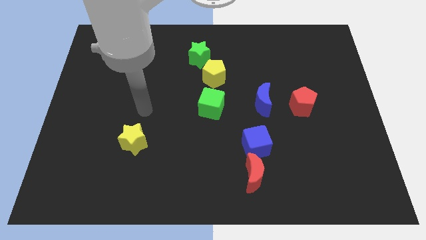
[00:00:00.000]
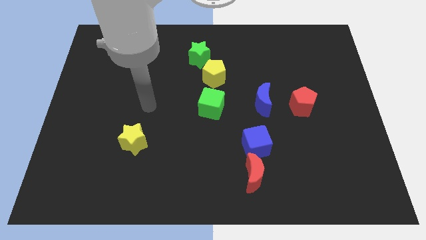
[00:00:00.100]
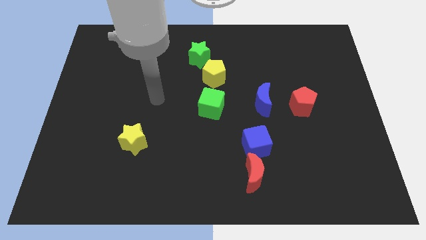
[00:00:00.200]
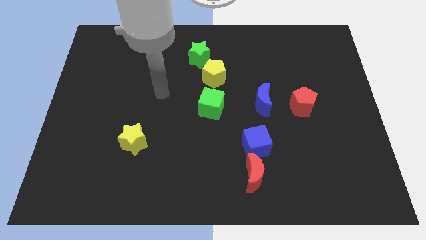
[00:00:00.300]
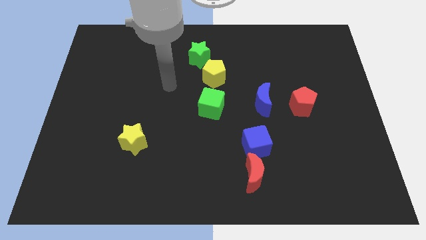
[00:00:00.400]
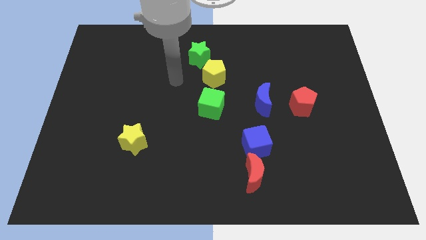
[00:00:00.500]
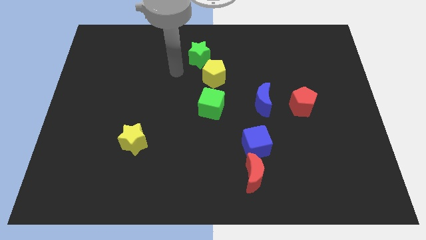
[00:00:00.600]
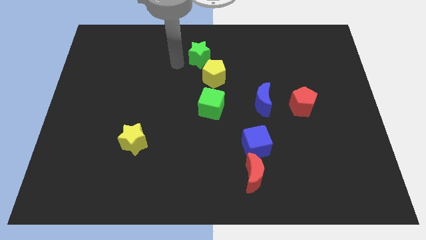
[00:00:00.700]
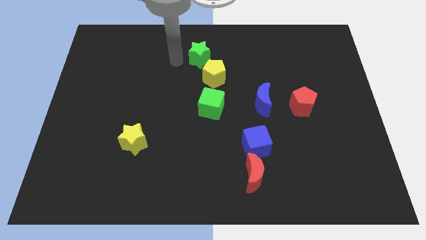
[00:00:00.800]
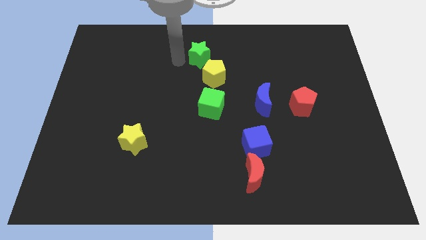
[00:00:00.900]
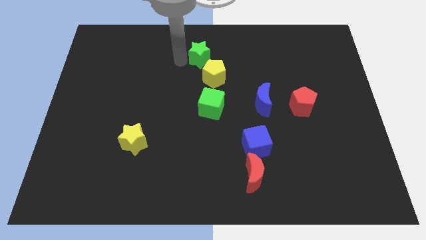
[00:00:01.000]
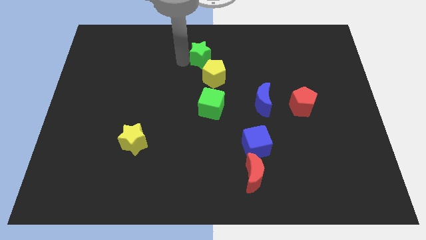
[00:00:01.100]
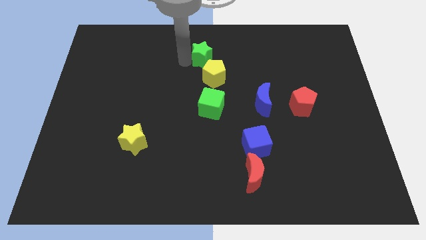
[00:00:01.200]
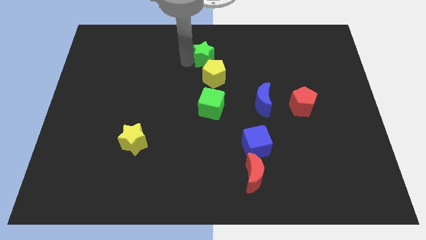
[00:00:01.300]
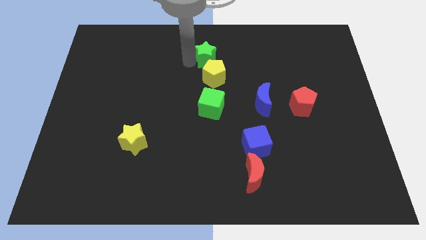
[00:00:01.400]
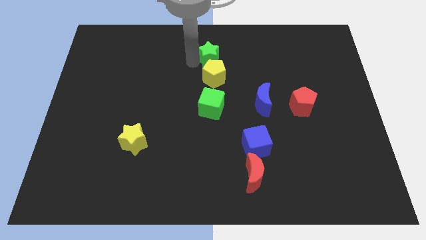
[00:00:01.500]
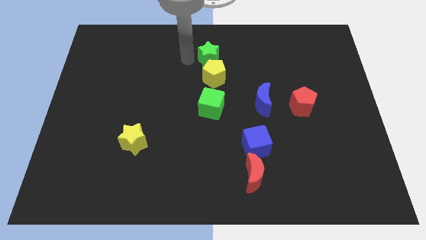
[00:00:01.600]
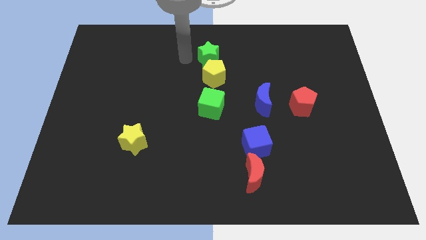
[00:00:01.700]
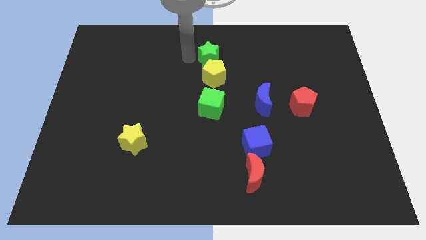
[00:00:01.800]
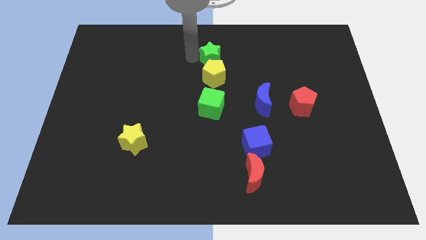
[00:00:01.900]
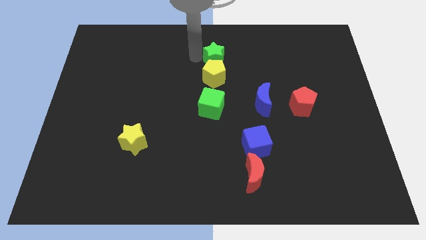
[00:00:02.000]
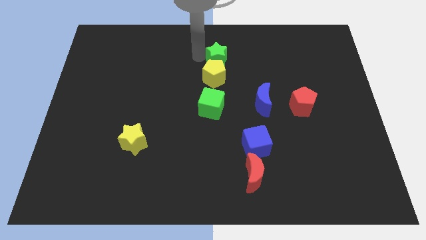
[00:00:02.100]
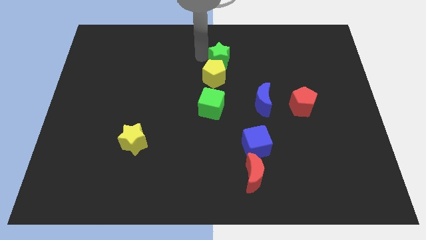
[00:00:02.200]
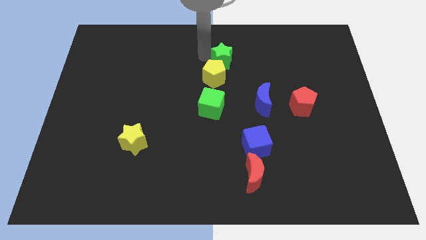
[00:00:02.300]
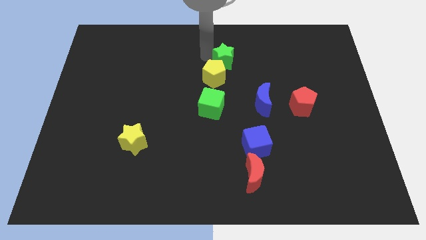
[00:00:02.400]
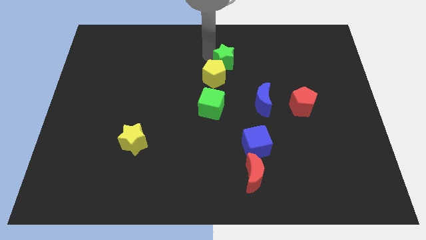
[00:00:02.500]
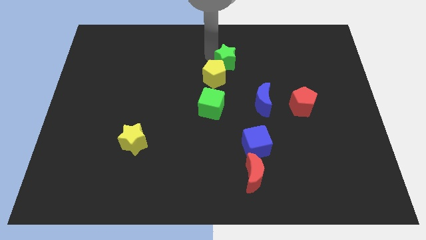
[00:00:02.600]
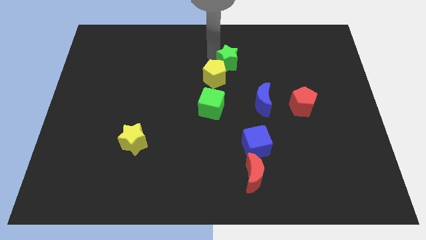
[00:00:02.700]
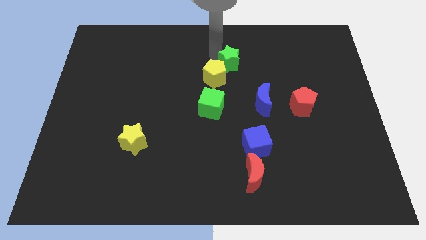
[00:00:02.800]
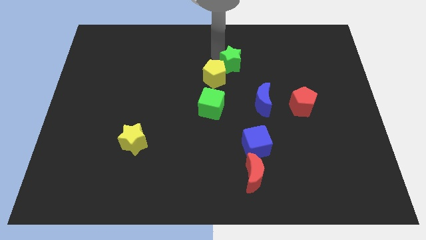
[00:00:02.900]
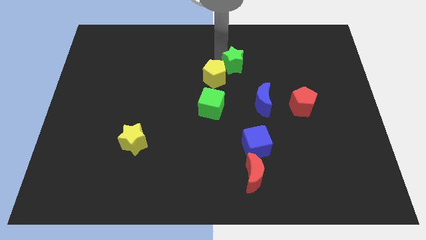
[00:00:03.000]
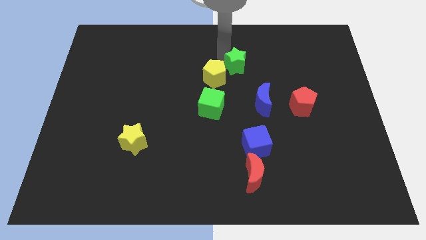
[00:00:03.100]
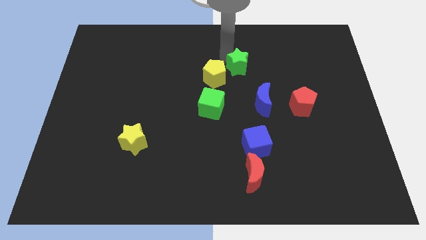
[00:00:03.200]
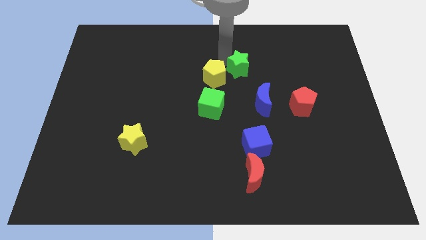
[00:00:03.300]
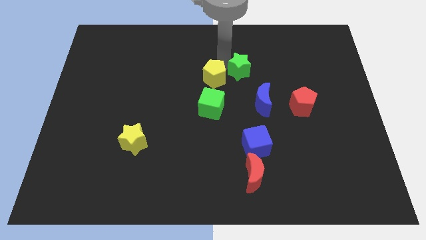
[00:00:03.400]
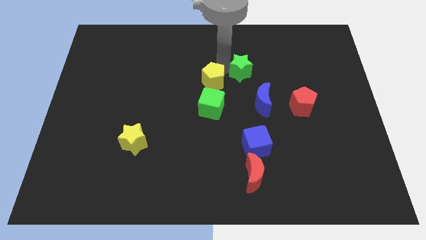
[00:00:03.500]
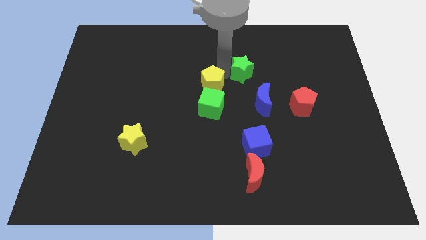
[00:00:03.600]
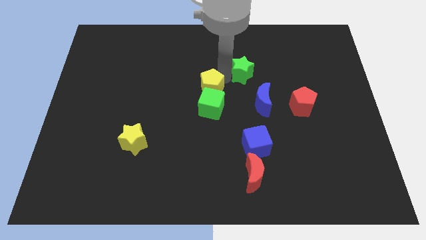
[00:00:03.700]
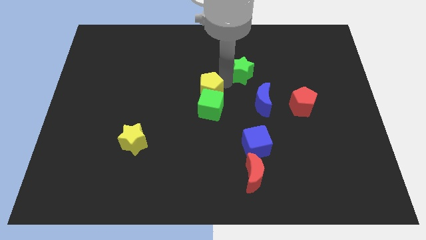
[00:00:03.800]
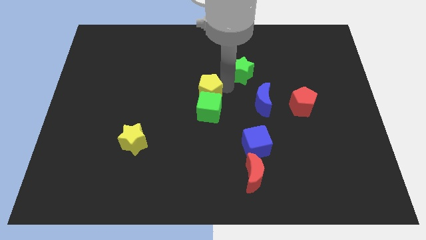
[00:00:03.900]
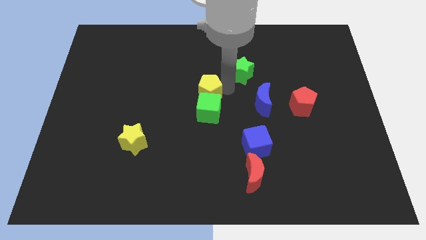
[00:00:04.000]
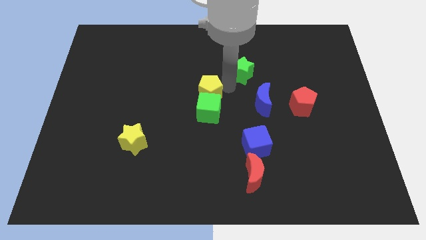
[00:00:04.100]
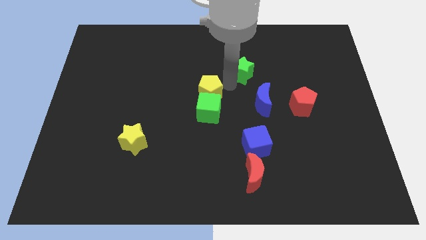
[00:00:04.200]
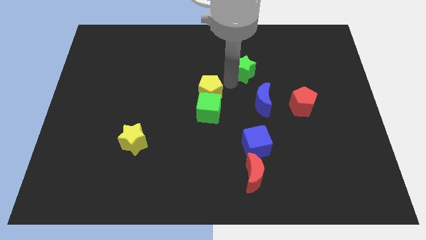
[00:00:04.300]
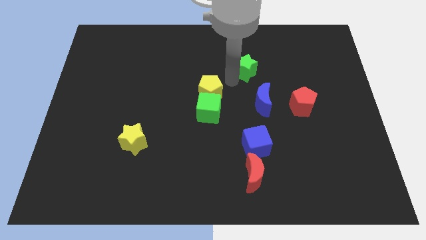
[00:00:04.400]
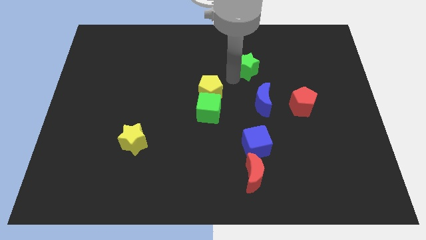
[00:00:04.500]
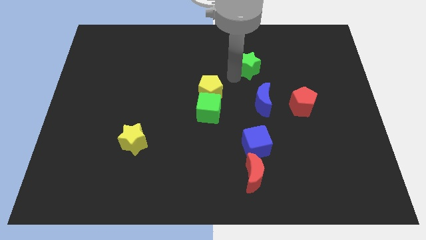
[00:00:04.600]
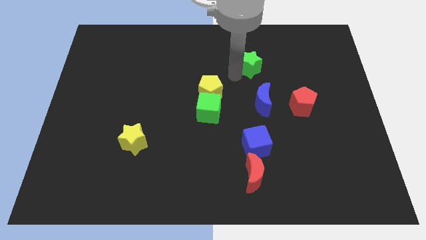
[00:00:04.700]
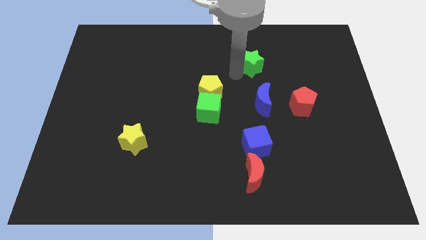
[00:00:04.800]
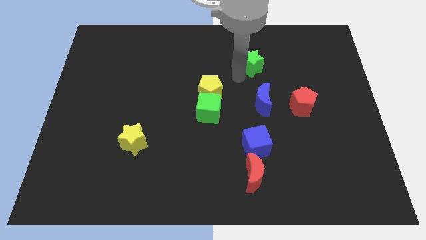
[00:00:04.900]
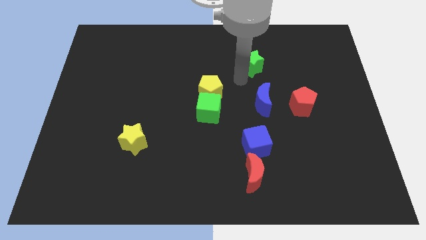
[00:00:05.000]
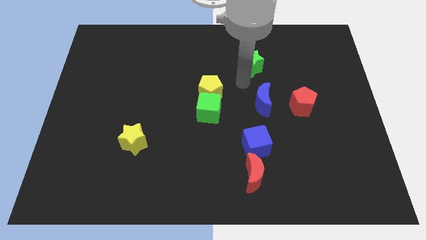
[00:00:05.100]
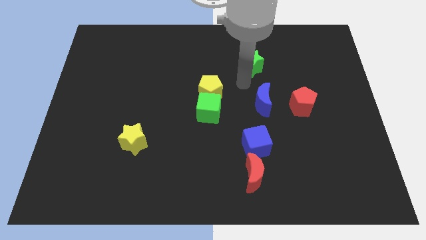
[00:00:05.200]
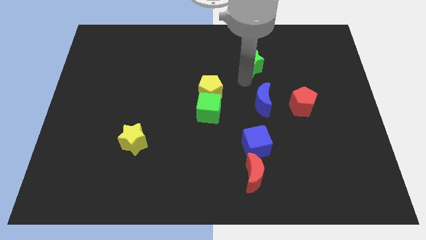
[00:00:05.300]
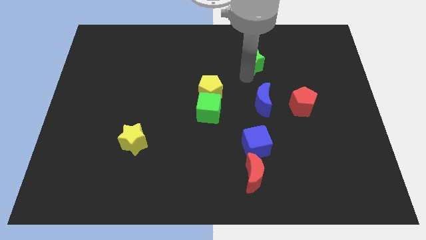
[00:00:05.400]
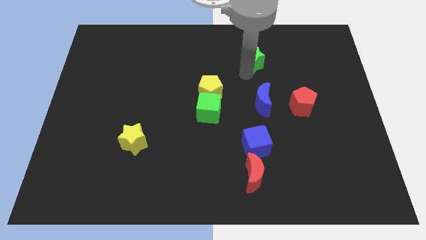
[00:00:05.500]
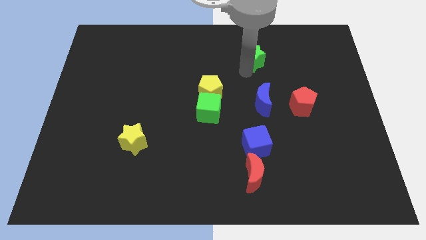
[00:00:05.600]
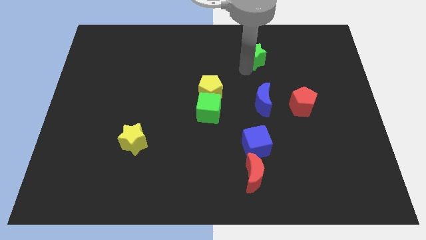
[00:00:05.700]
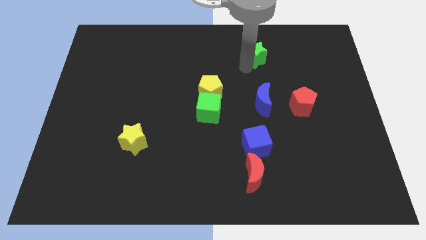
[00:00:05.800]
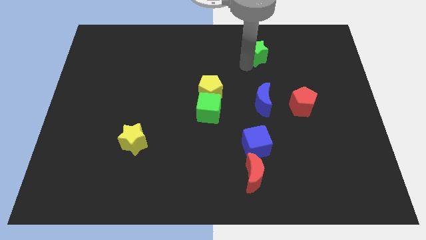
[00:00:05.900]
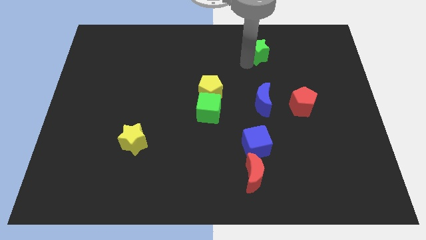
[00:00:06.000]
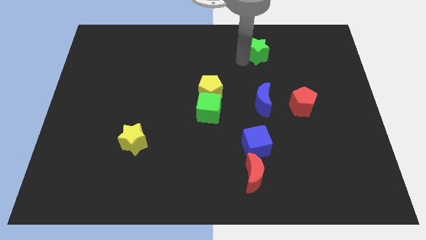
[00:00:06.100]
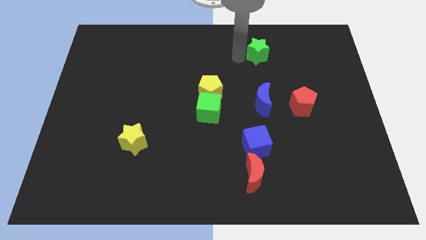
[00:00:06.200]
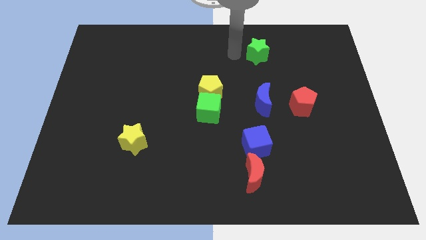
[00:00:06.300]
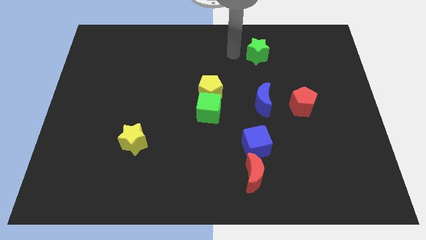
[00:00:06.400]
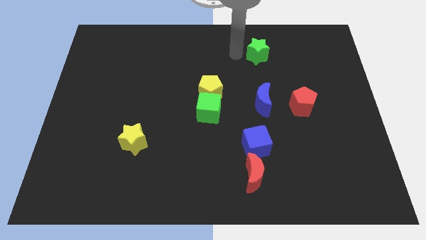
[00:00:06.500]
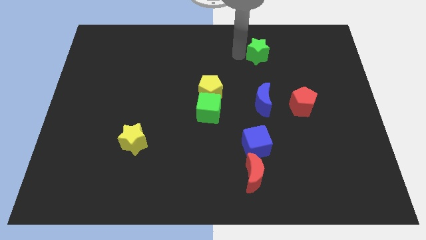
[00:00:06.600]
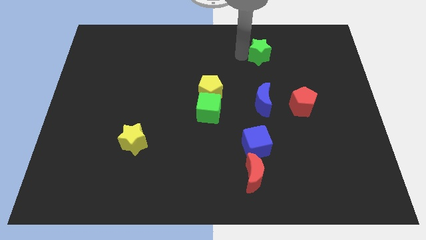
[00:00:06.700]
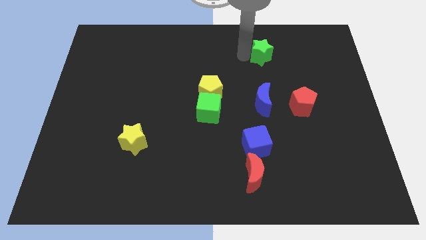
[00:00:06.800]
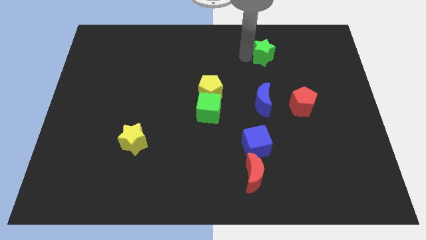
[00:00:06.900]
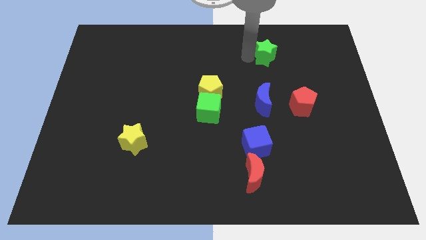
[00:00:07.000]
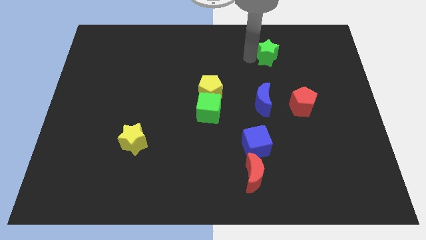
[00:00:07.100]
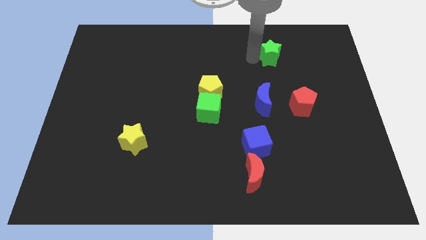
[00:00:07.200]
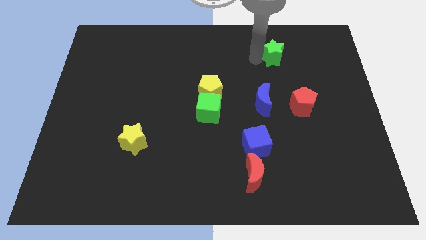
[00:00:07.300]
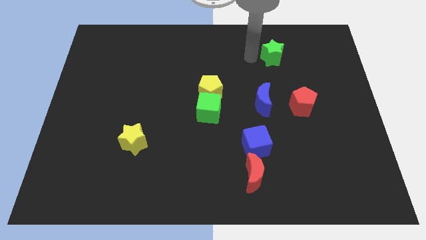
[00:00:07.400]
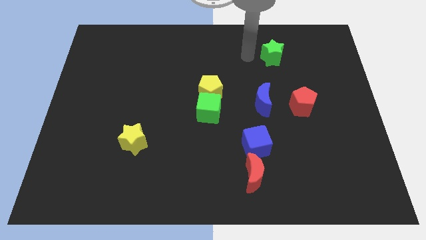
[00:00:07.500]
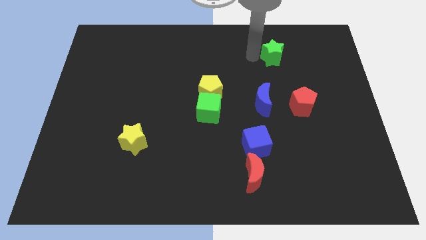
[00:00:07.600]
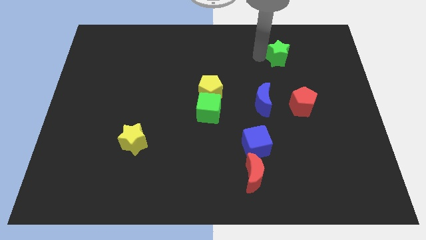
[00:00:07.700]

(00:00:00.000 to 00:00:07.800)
push the green star right
